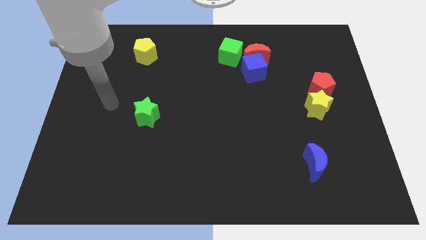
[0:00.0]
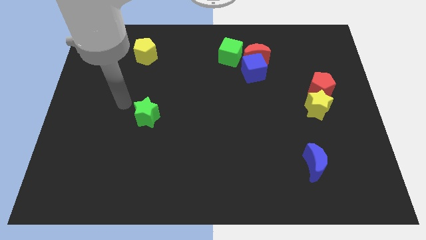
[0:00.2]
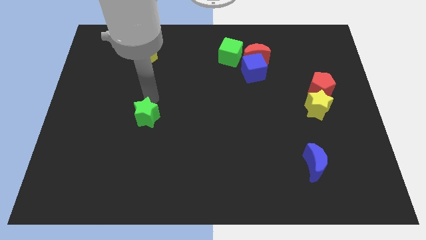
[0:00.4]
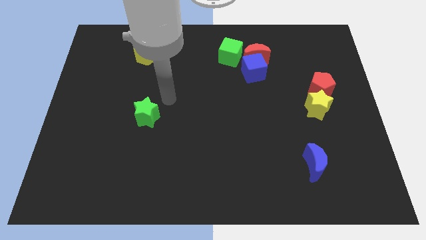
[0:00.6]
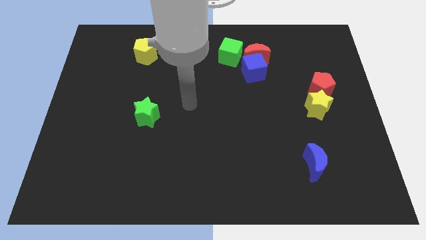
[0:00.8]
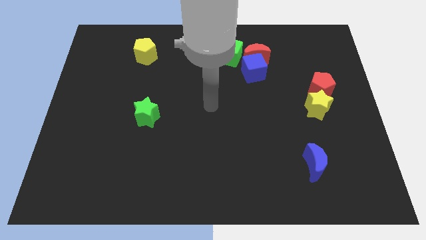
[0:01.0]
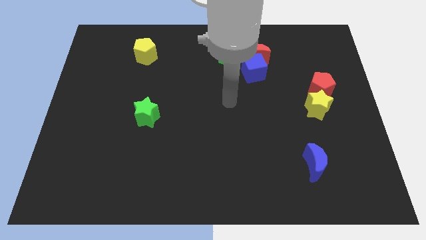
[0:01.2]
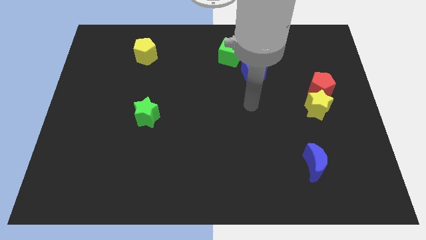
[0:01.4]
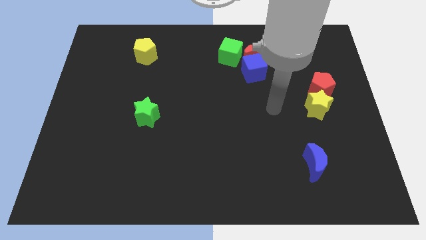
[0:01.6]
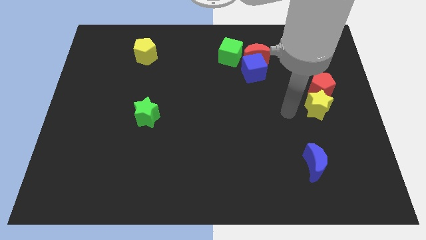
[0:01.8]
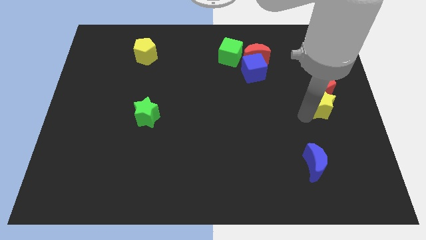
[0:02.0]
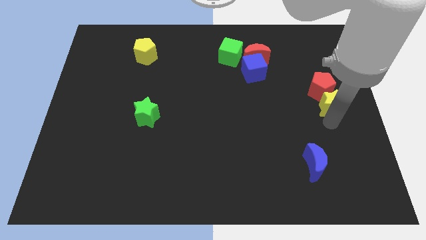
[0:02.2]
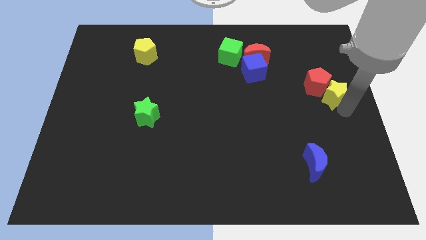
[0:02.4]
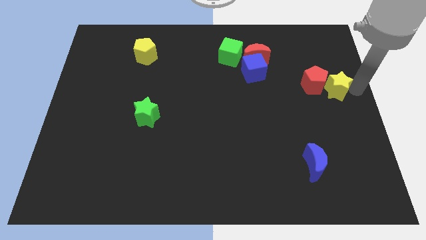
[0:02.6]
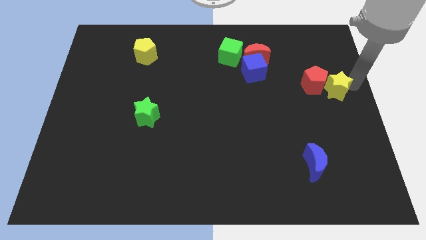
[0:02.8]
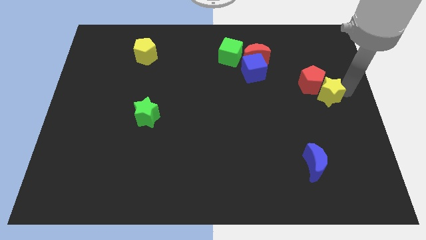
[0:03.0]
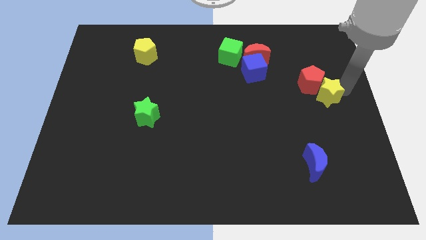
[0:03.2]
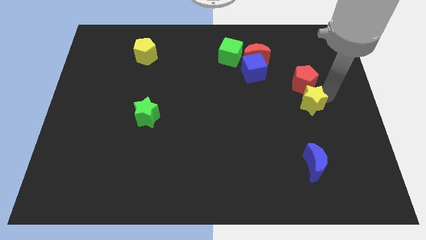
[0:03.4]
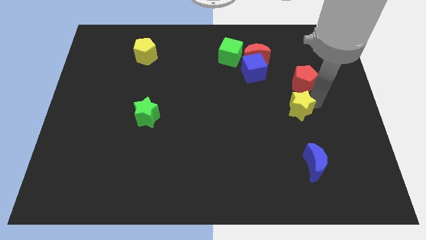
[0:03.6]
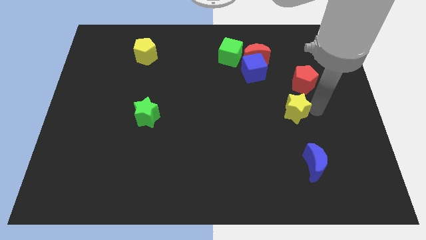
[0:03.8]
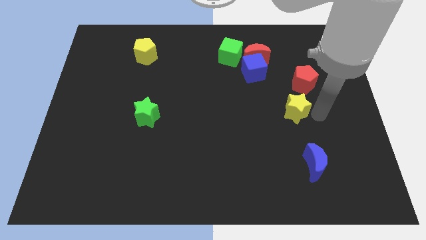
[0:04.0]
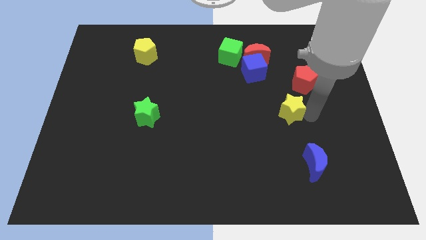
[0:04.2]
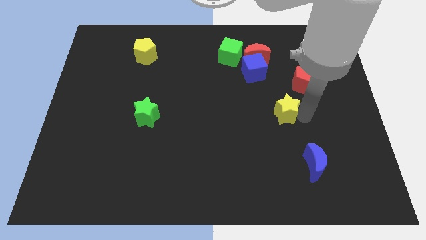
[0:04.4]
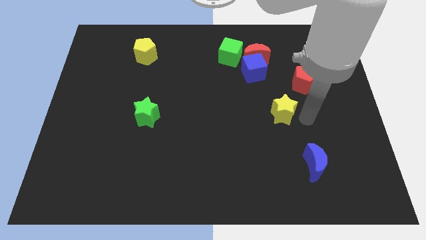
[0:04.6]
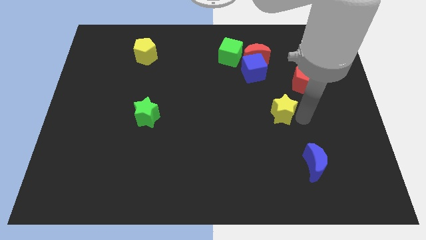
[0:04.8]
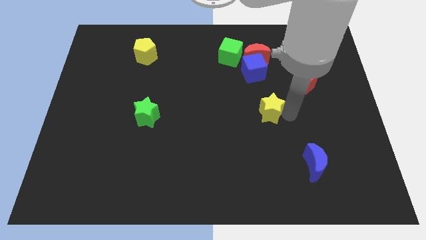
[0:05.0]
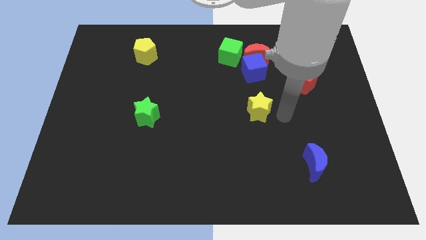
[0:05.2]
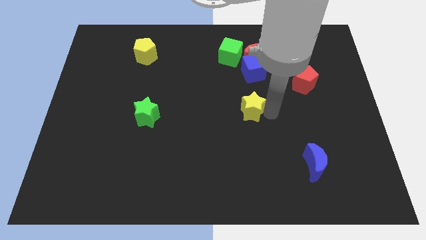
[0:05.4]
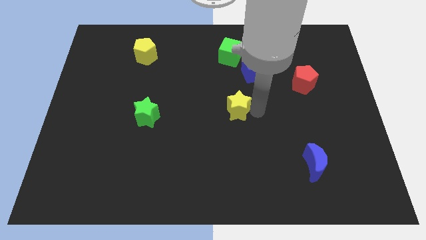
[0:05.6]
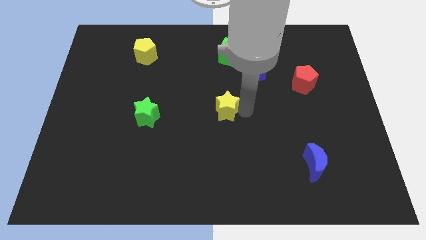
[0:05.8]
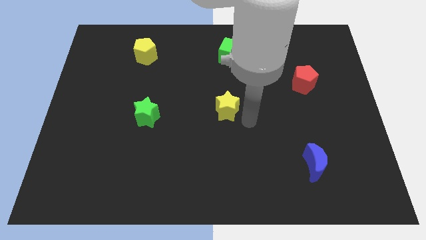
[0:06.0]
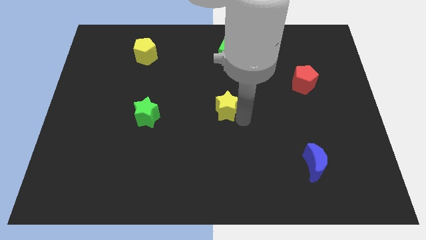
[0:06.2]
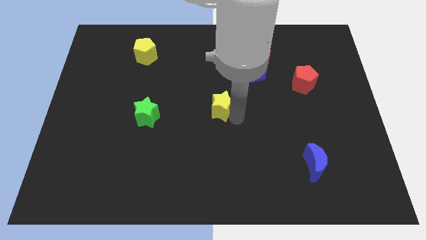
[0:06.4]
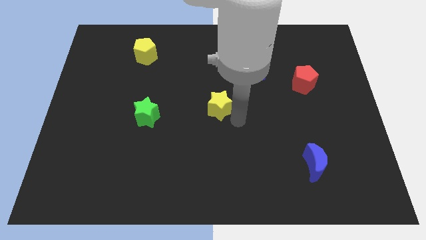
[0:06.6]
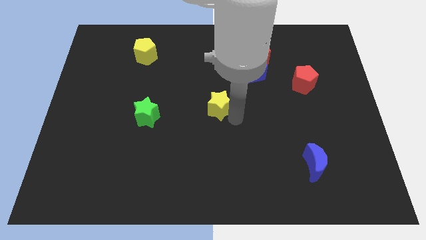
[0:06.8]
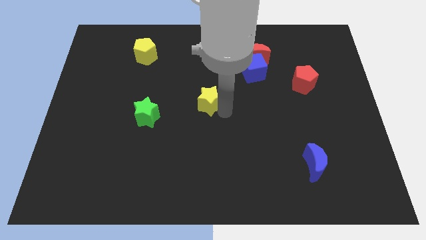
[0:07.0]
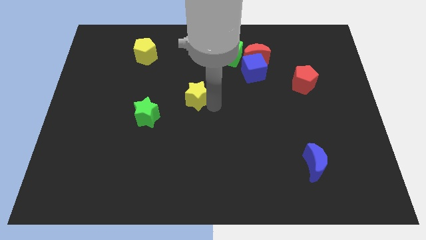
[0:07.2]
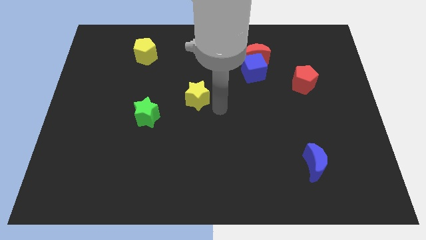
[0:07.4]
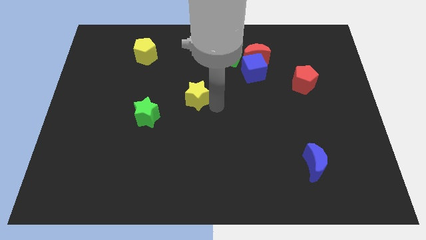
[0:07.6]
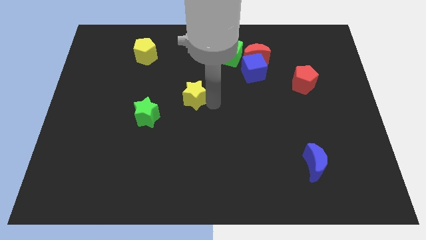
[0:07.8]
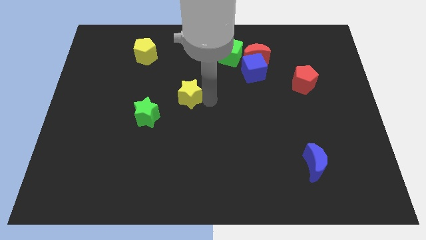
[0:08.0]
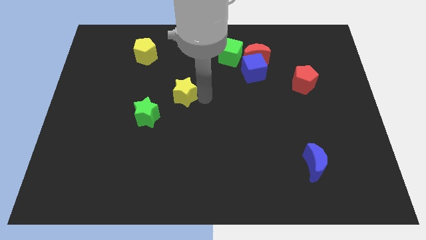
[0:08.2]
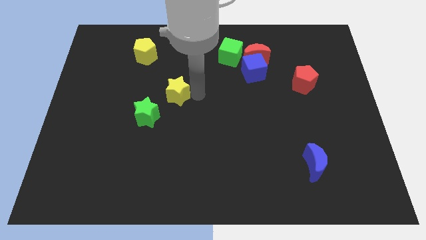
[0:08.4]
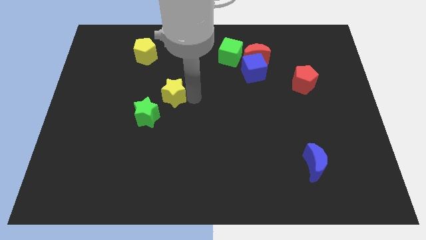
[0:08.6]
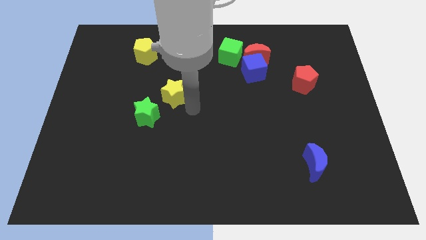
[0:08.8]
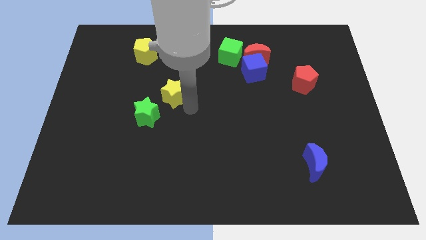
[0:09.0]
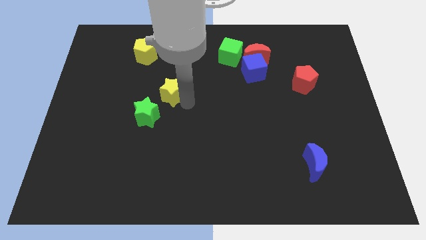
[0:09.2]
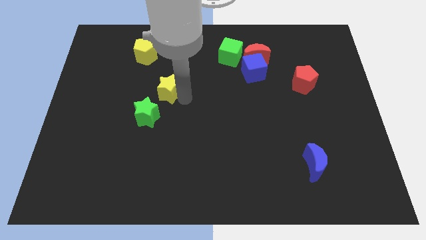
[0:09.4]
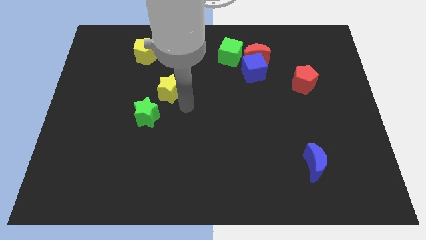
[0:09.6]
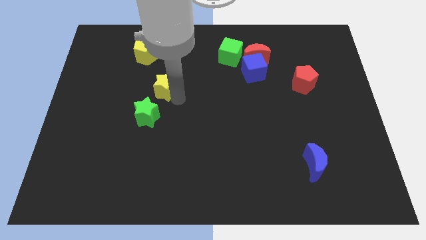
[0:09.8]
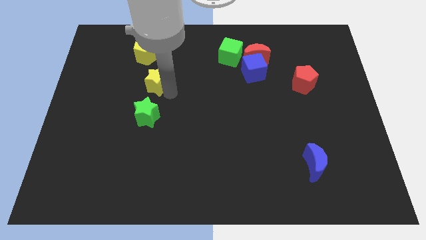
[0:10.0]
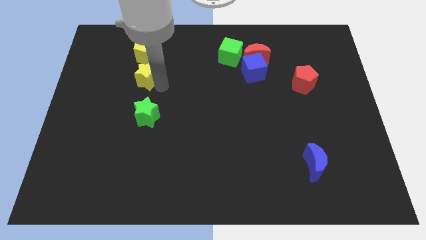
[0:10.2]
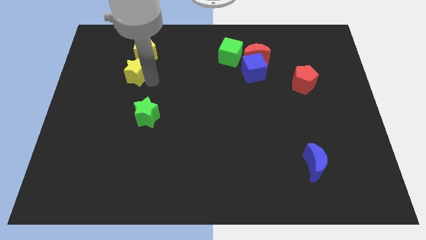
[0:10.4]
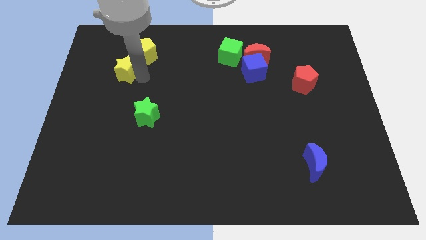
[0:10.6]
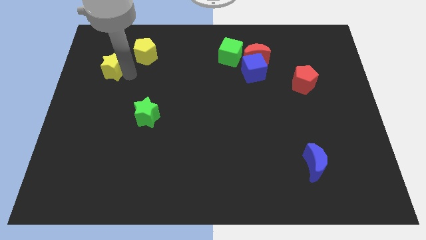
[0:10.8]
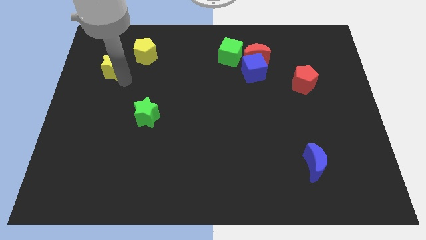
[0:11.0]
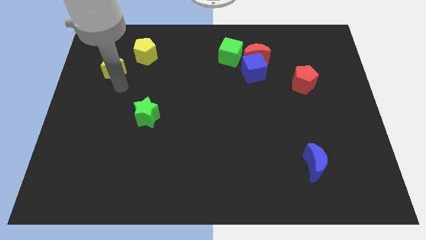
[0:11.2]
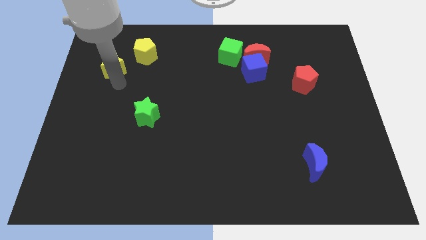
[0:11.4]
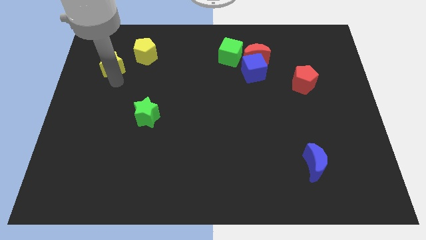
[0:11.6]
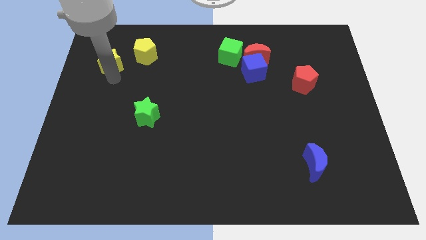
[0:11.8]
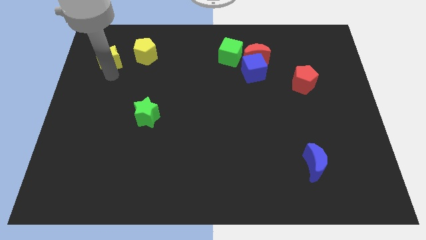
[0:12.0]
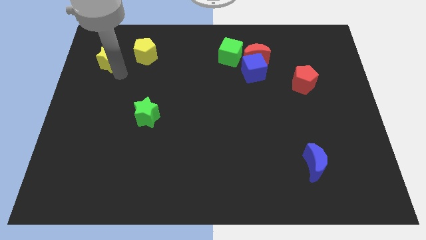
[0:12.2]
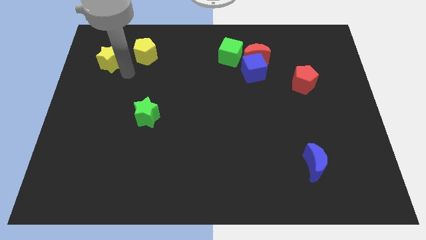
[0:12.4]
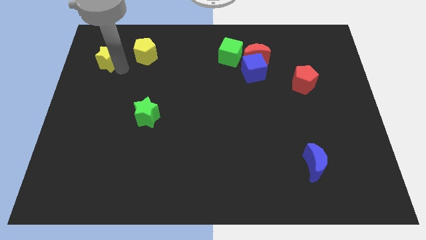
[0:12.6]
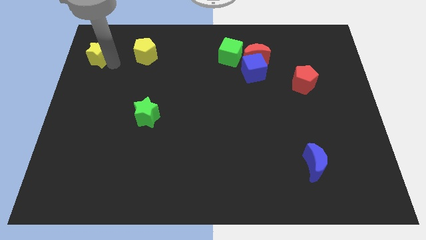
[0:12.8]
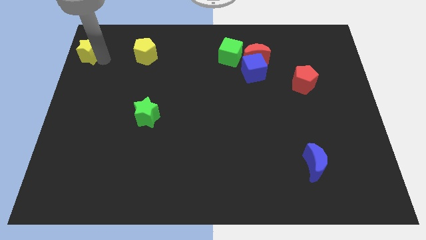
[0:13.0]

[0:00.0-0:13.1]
move the yellow star to the top left corner
